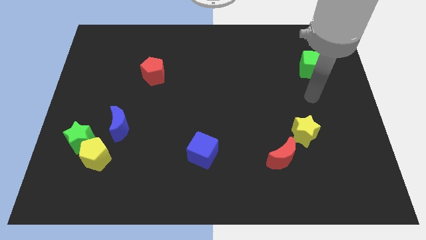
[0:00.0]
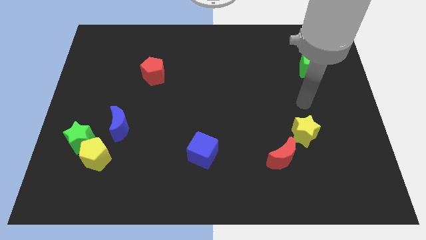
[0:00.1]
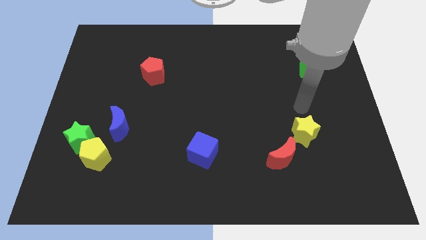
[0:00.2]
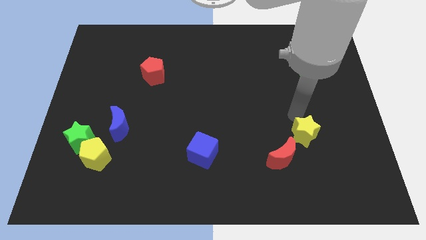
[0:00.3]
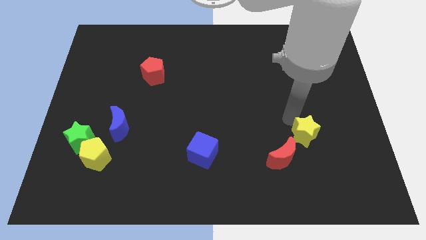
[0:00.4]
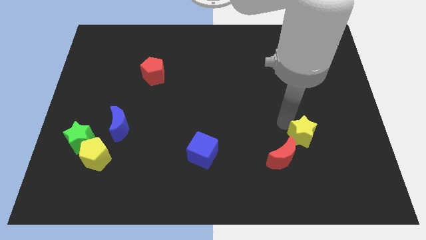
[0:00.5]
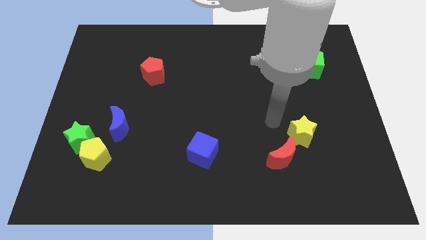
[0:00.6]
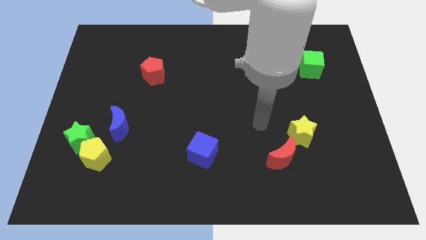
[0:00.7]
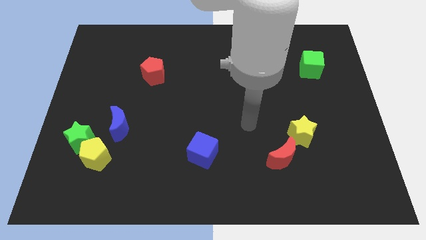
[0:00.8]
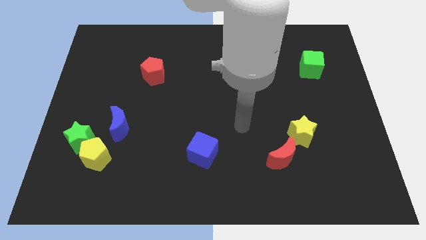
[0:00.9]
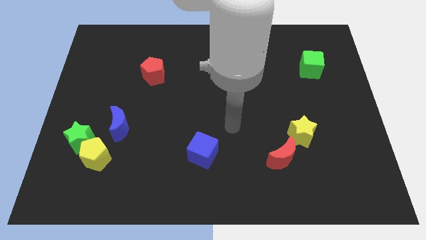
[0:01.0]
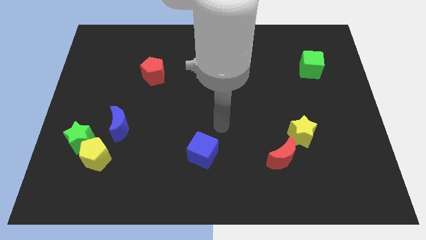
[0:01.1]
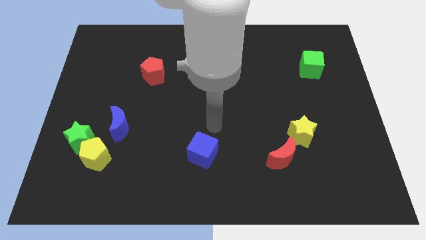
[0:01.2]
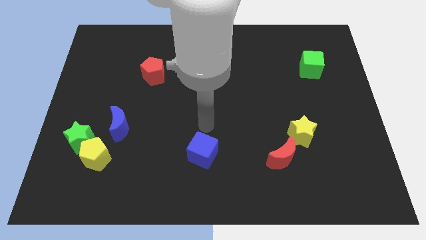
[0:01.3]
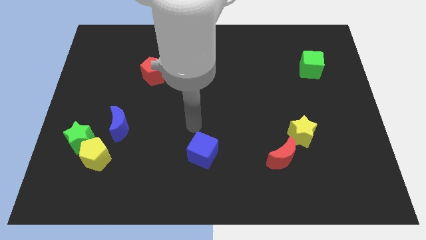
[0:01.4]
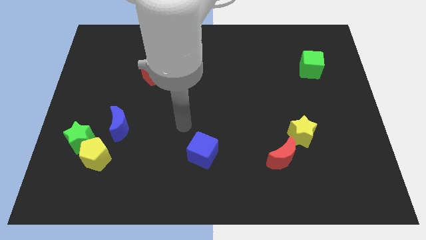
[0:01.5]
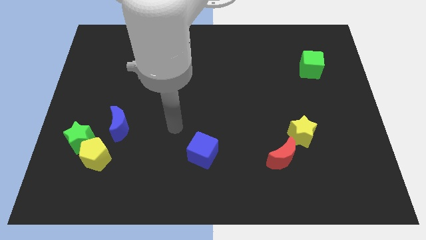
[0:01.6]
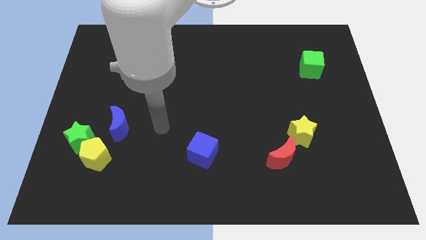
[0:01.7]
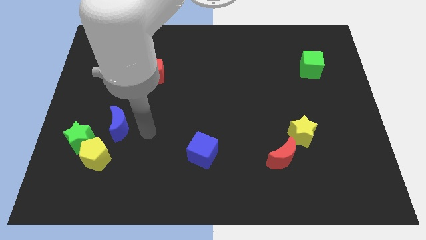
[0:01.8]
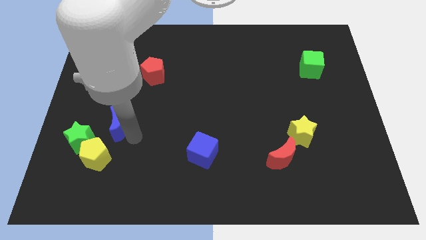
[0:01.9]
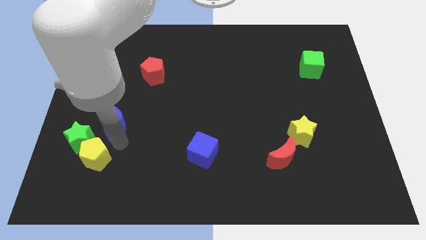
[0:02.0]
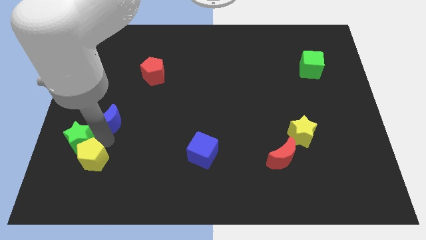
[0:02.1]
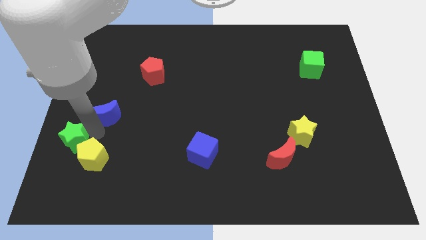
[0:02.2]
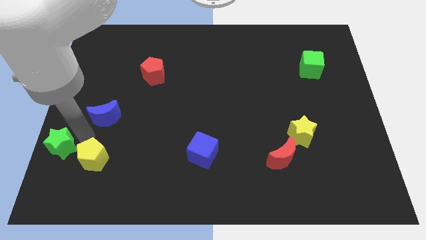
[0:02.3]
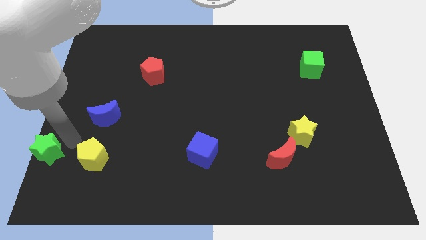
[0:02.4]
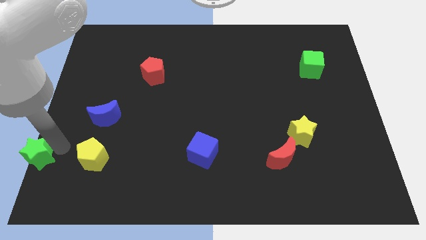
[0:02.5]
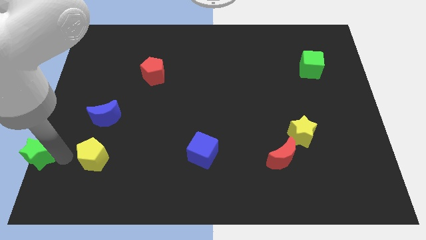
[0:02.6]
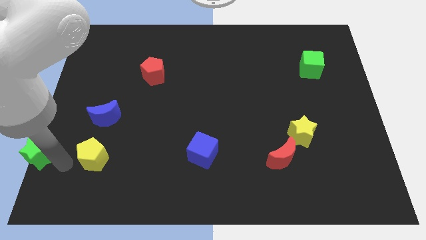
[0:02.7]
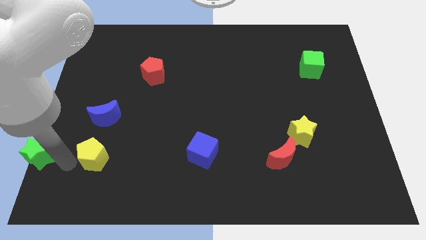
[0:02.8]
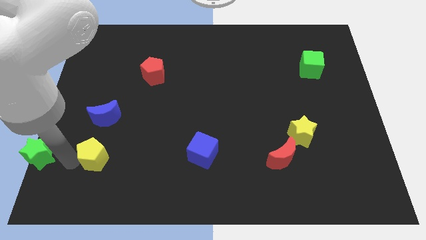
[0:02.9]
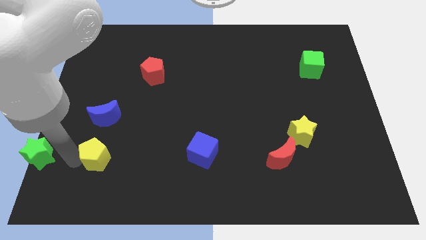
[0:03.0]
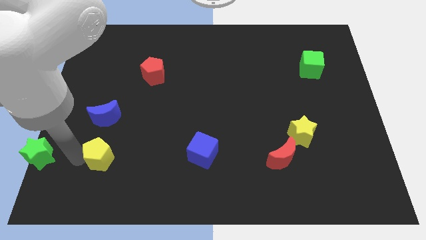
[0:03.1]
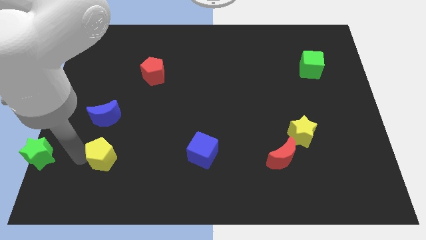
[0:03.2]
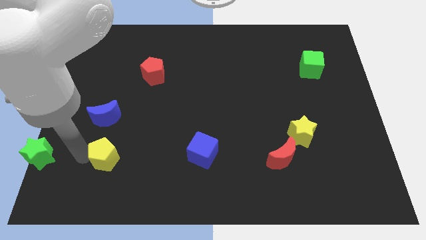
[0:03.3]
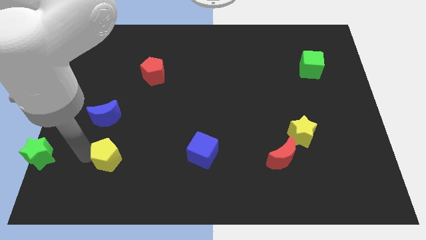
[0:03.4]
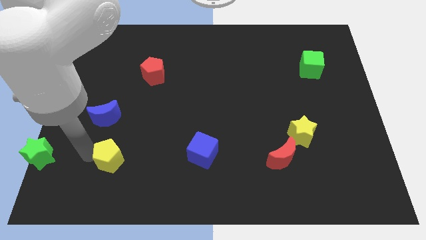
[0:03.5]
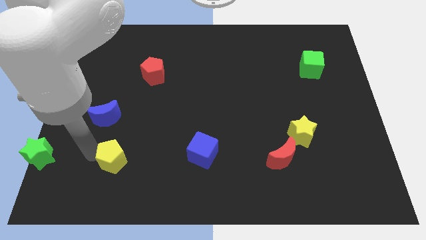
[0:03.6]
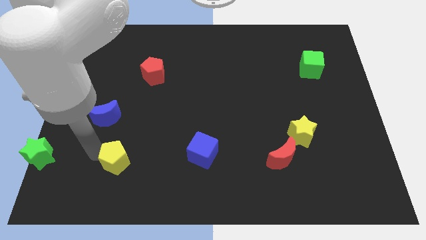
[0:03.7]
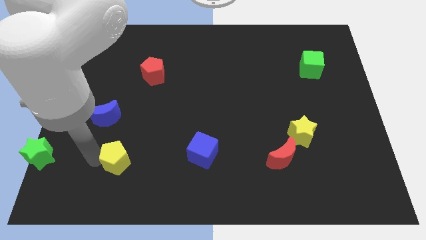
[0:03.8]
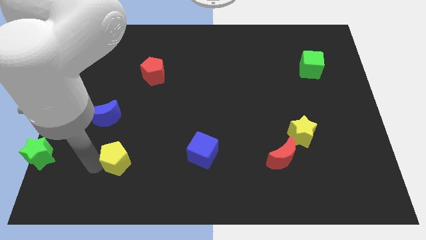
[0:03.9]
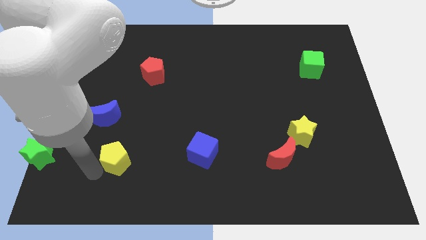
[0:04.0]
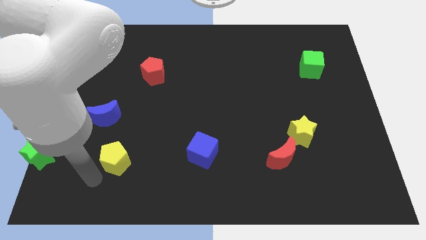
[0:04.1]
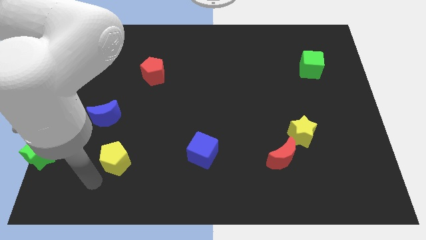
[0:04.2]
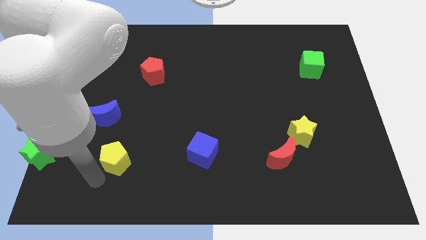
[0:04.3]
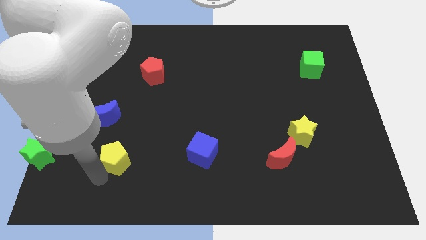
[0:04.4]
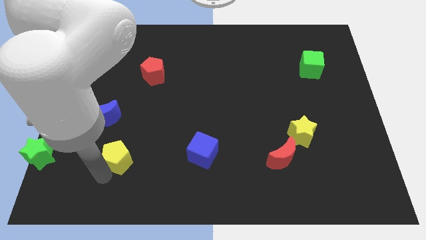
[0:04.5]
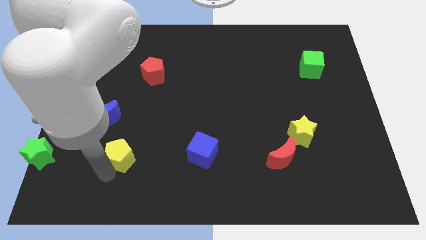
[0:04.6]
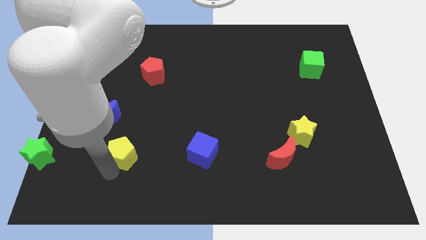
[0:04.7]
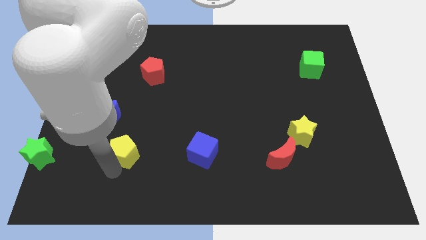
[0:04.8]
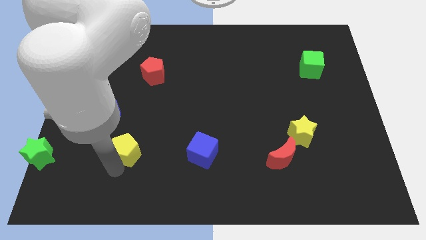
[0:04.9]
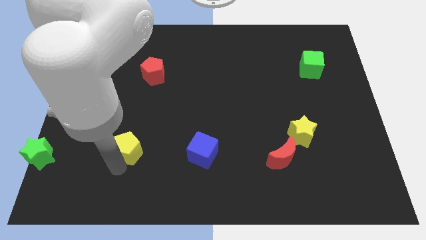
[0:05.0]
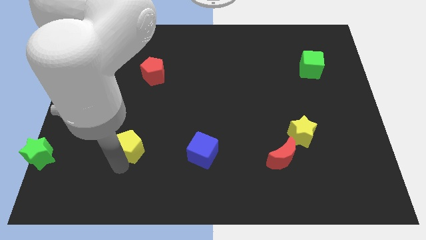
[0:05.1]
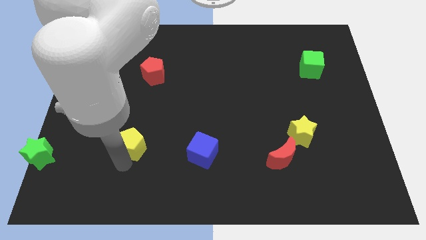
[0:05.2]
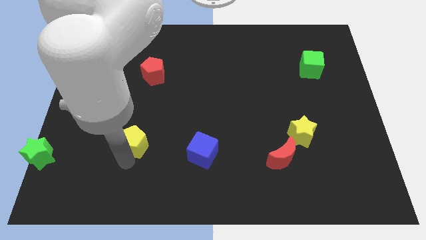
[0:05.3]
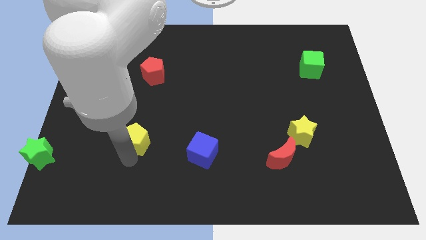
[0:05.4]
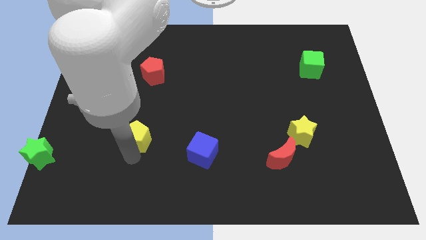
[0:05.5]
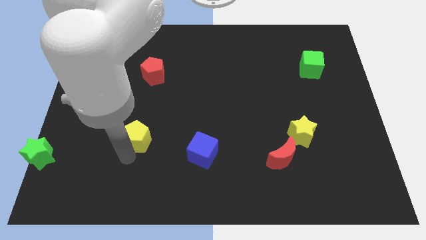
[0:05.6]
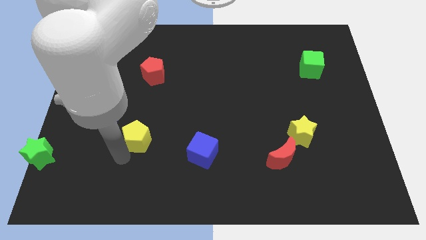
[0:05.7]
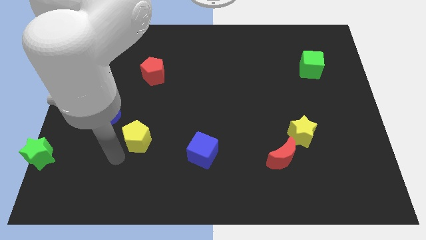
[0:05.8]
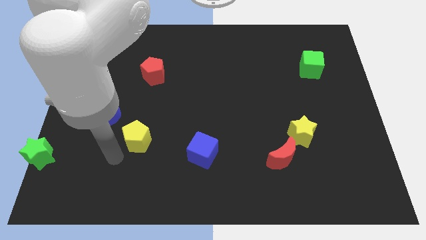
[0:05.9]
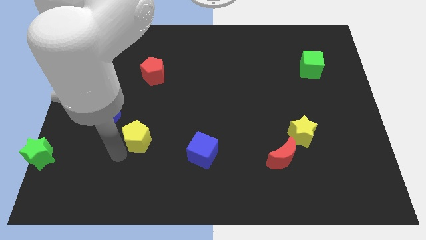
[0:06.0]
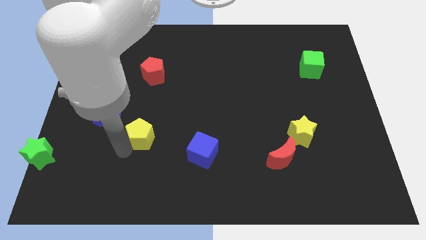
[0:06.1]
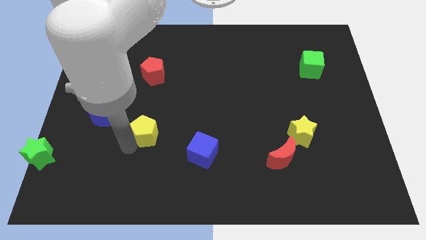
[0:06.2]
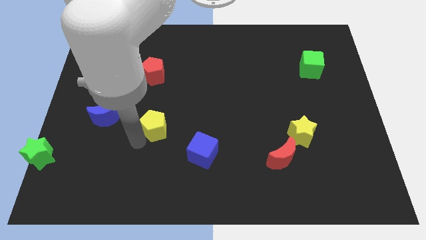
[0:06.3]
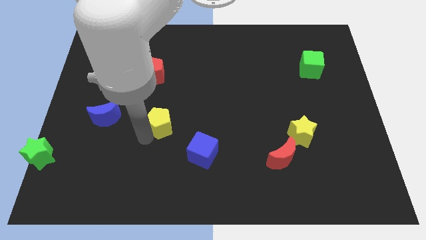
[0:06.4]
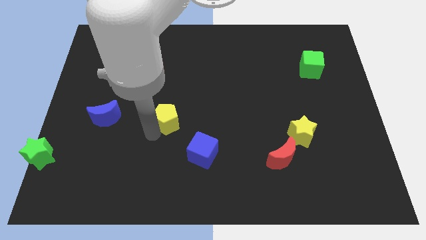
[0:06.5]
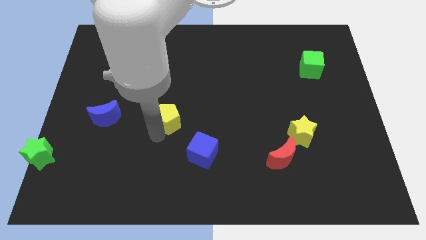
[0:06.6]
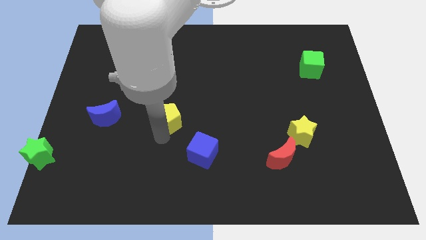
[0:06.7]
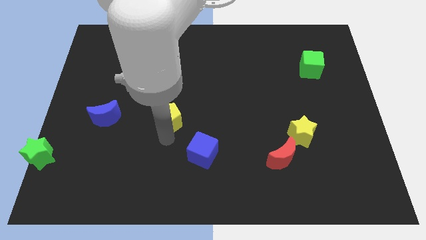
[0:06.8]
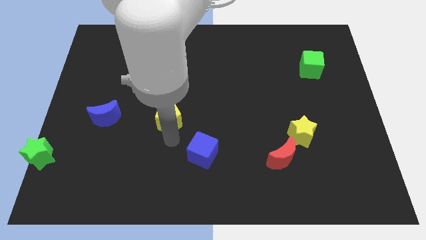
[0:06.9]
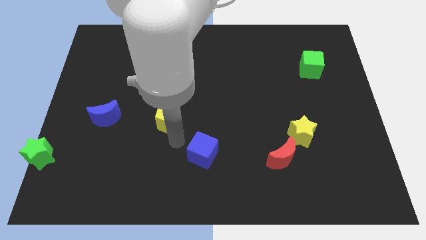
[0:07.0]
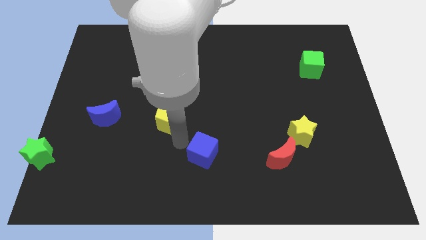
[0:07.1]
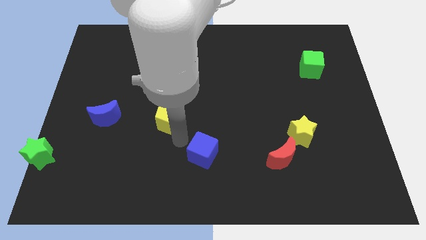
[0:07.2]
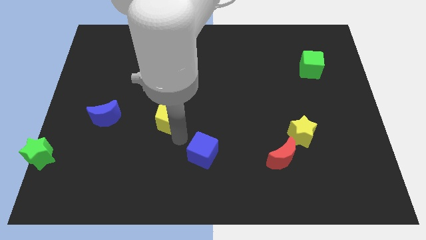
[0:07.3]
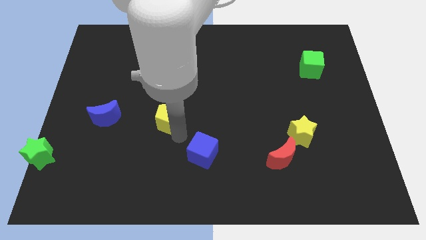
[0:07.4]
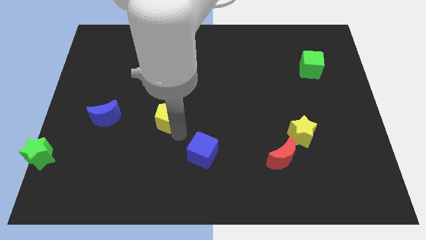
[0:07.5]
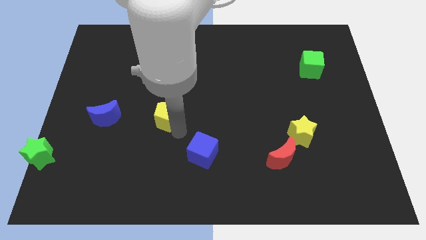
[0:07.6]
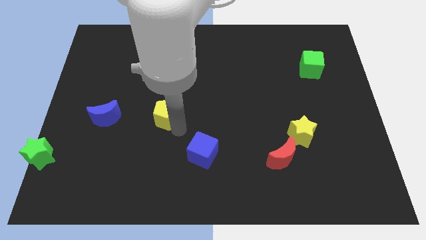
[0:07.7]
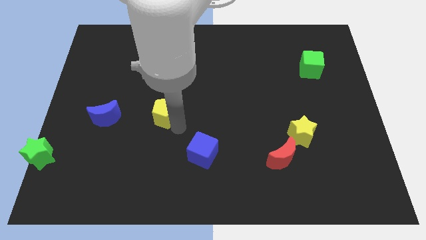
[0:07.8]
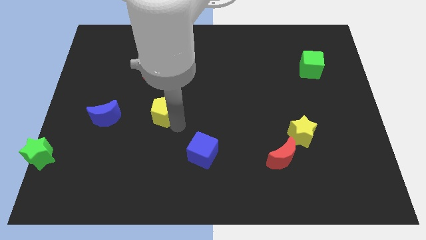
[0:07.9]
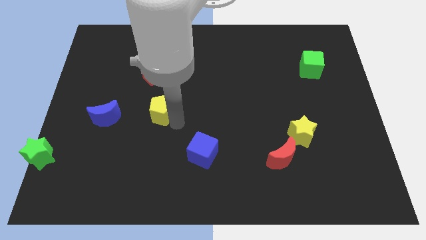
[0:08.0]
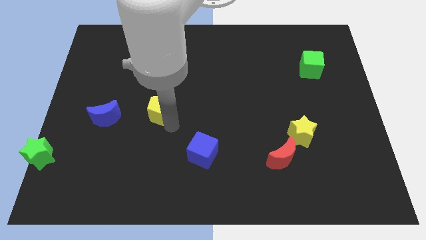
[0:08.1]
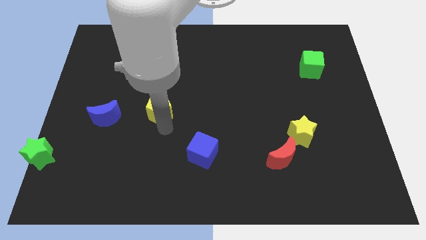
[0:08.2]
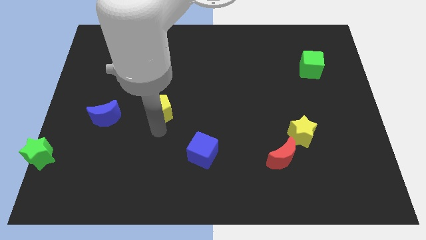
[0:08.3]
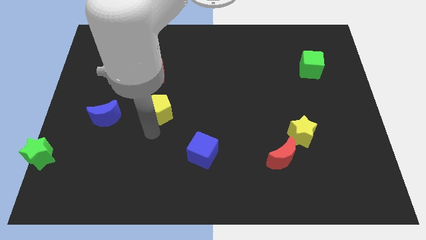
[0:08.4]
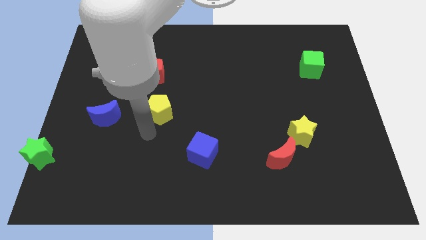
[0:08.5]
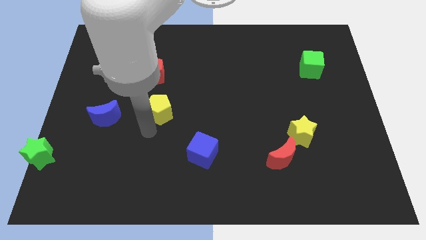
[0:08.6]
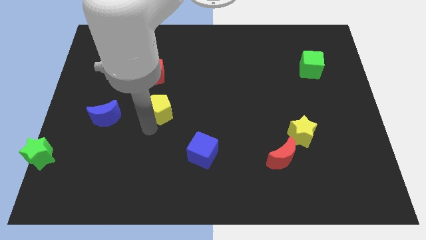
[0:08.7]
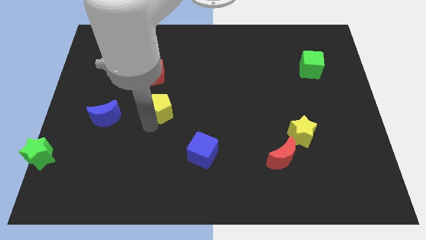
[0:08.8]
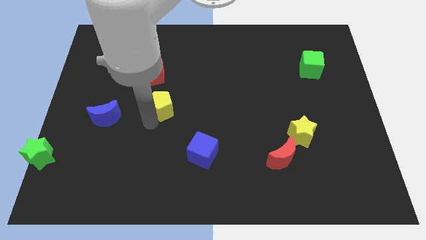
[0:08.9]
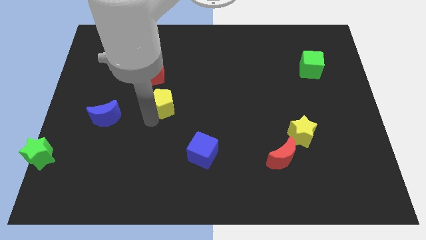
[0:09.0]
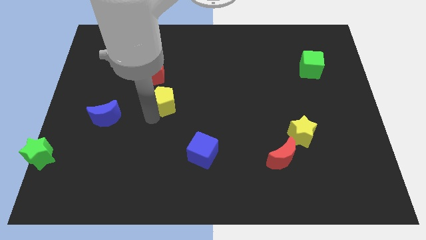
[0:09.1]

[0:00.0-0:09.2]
slide the yellow pentagon to the bottom right of the red pentagon
